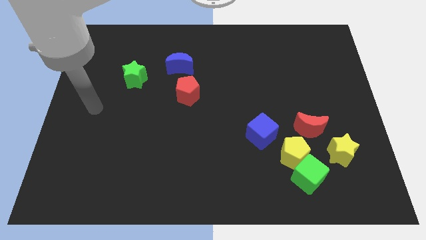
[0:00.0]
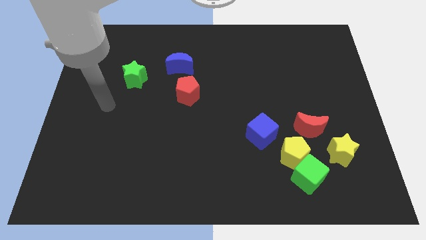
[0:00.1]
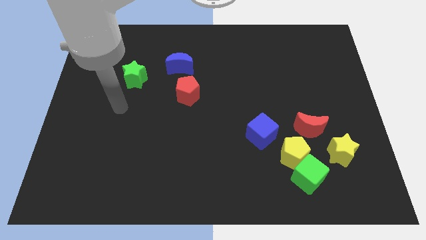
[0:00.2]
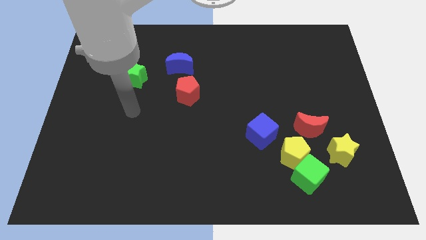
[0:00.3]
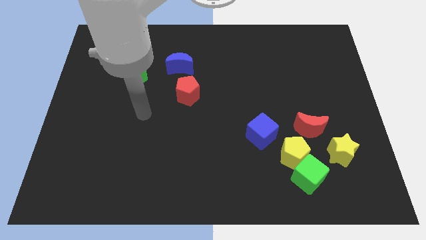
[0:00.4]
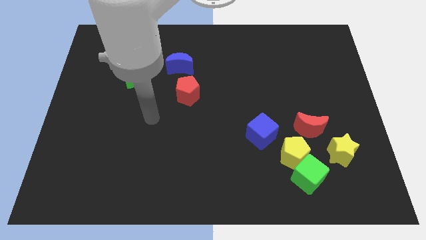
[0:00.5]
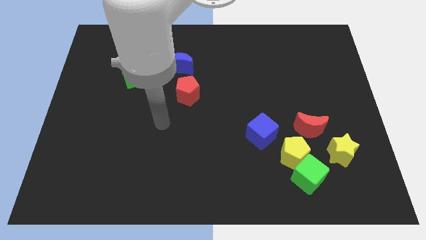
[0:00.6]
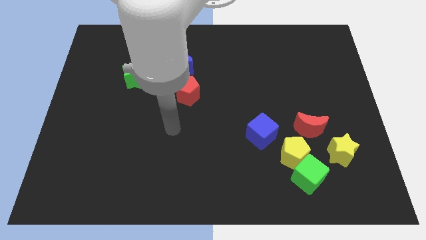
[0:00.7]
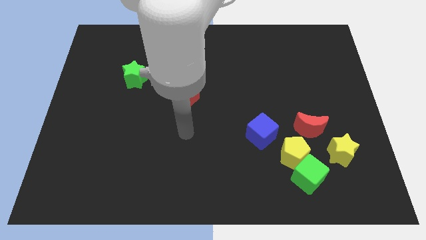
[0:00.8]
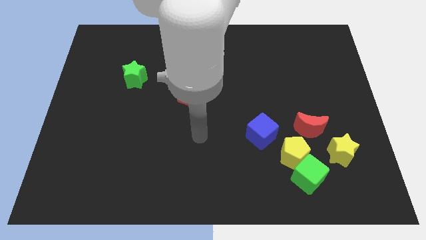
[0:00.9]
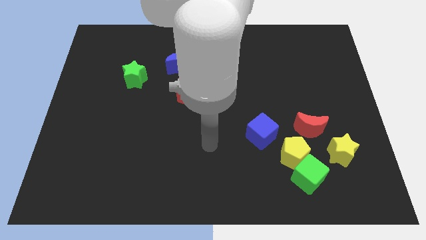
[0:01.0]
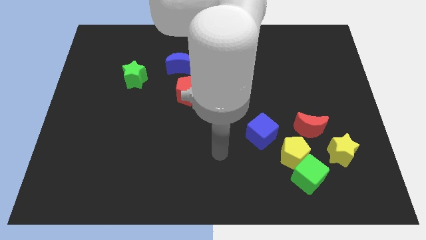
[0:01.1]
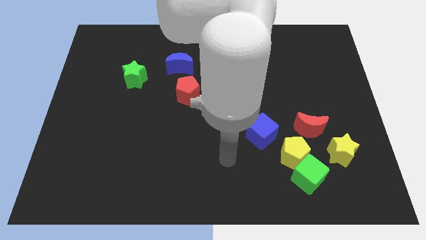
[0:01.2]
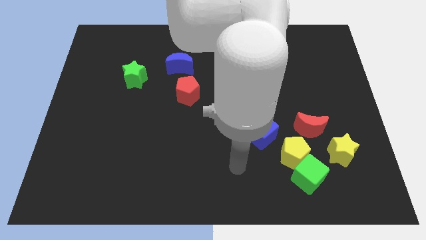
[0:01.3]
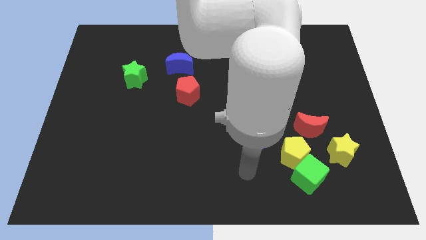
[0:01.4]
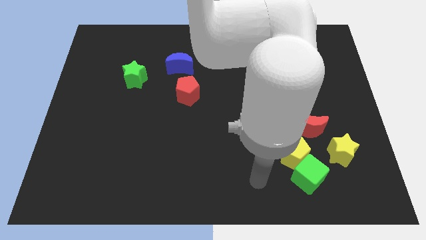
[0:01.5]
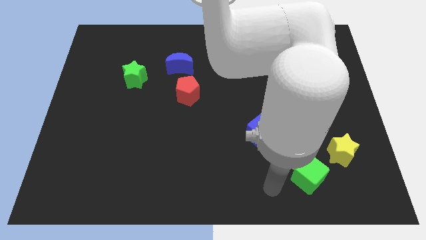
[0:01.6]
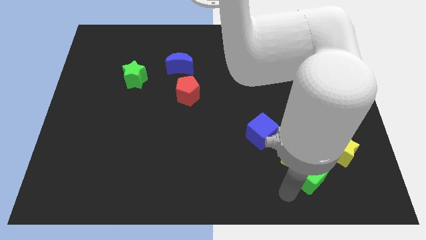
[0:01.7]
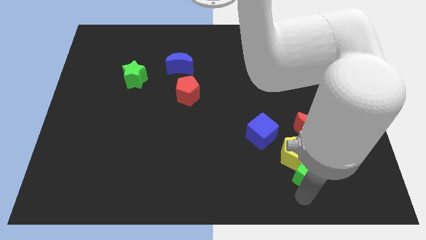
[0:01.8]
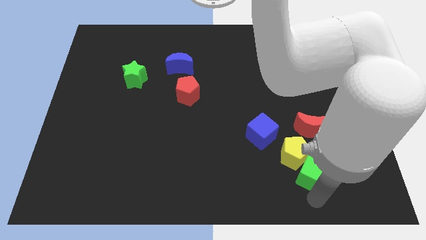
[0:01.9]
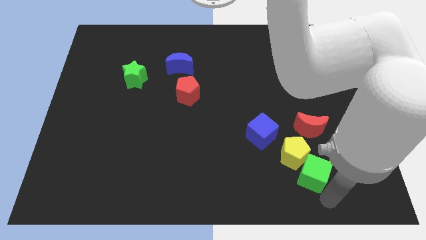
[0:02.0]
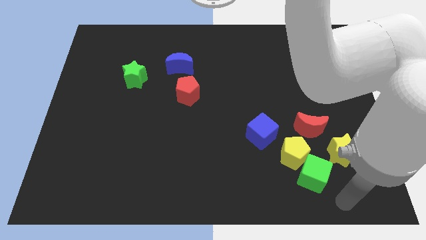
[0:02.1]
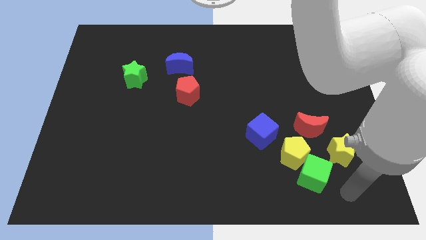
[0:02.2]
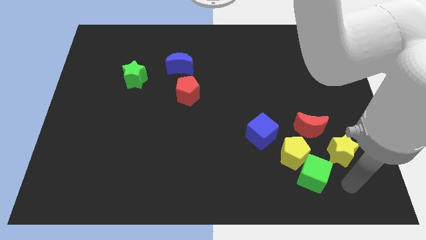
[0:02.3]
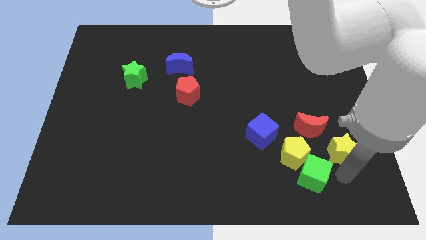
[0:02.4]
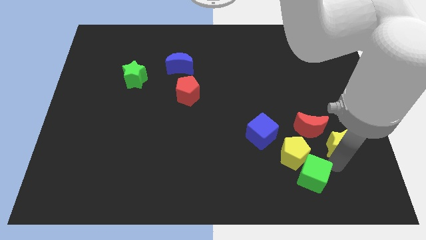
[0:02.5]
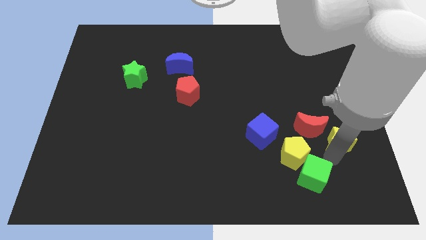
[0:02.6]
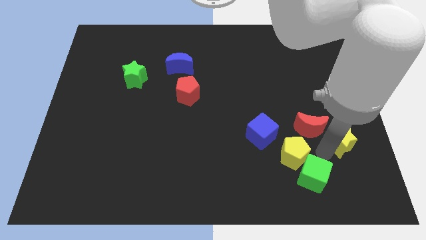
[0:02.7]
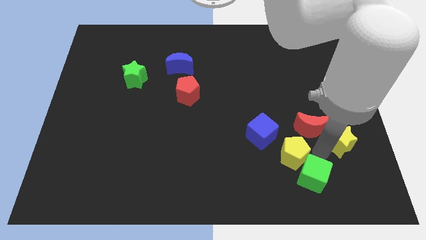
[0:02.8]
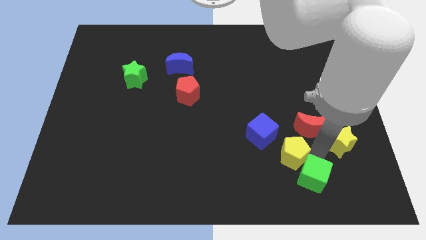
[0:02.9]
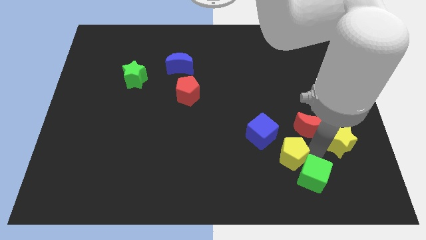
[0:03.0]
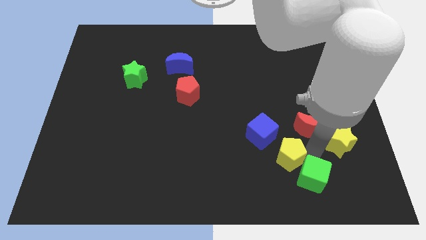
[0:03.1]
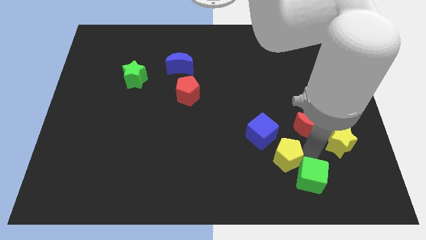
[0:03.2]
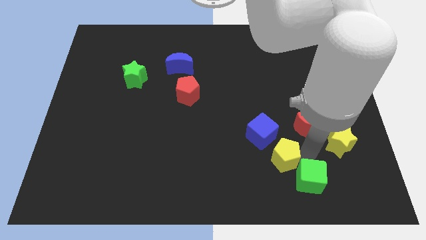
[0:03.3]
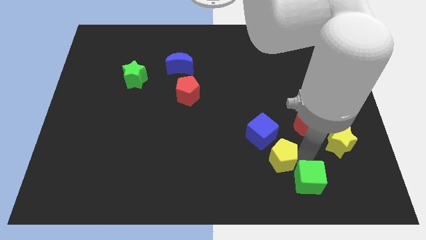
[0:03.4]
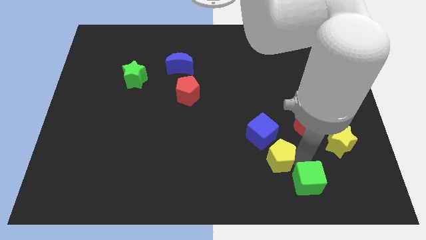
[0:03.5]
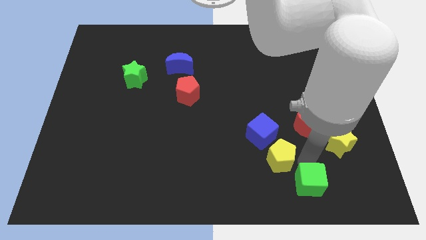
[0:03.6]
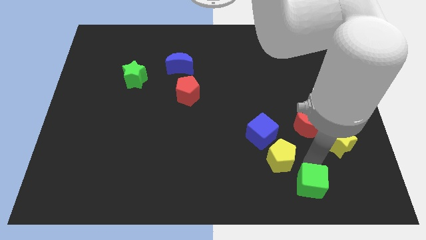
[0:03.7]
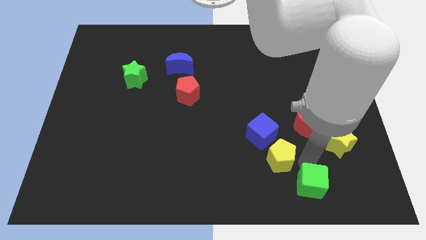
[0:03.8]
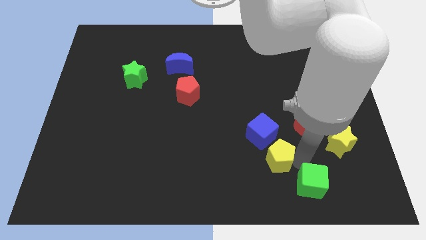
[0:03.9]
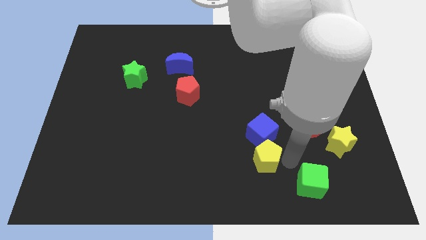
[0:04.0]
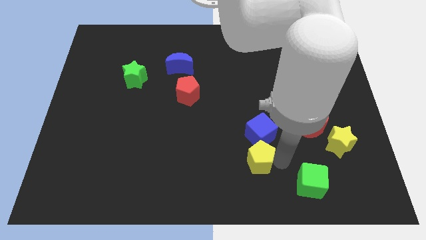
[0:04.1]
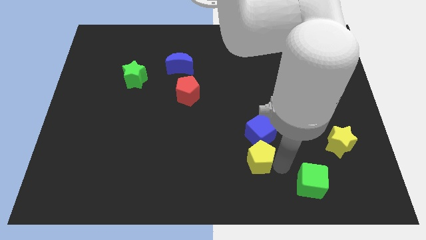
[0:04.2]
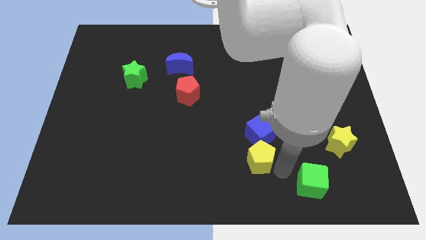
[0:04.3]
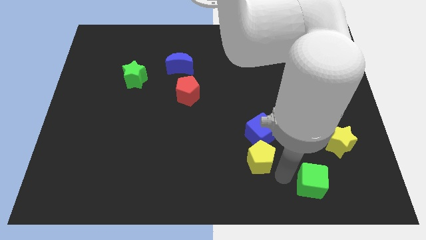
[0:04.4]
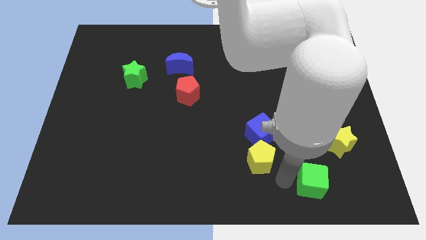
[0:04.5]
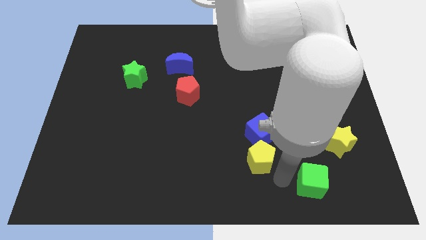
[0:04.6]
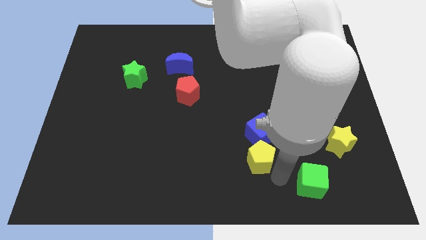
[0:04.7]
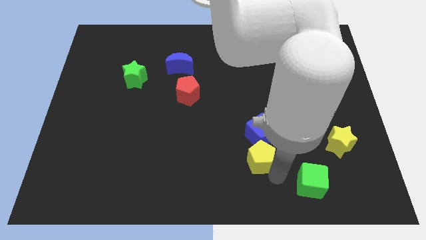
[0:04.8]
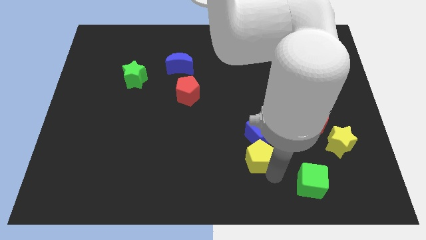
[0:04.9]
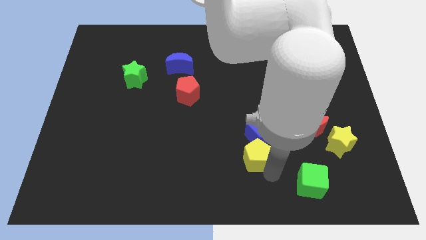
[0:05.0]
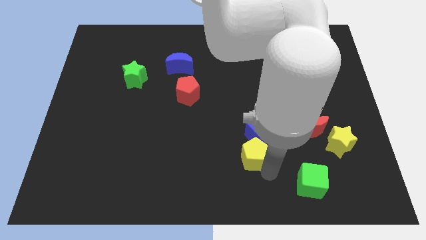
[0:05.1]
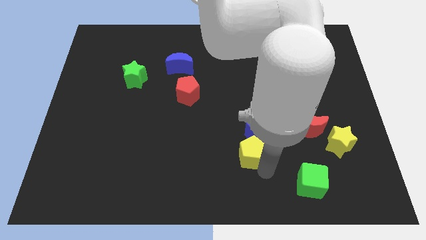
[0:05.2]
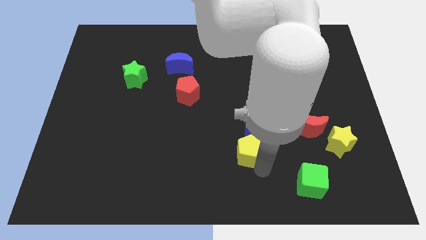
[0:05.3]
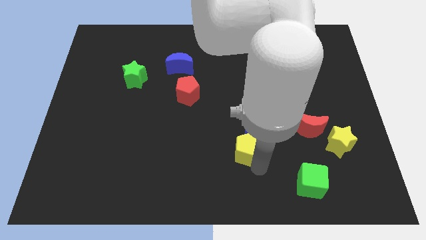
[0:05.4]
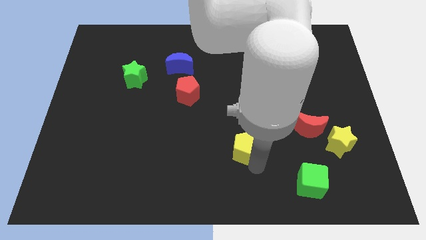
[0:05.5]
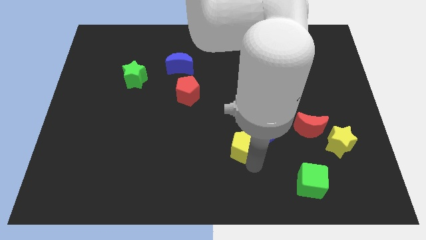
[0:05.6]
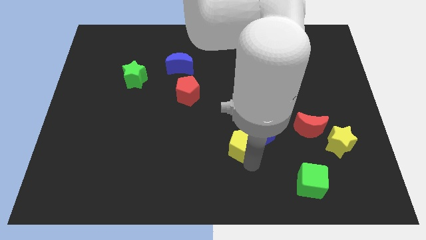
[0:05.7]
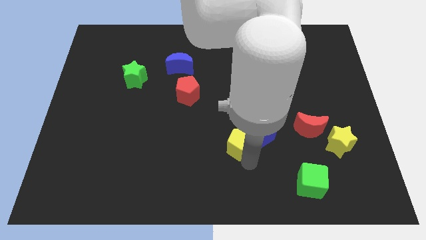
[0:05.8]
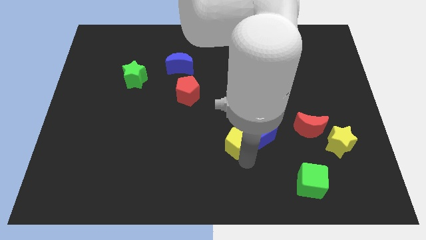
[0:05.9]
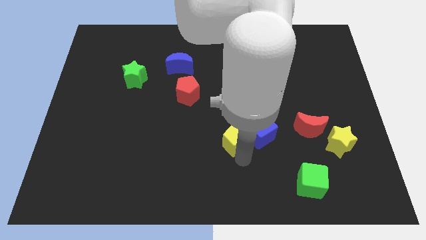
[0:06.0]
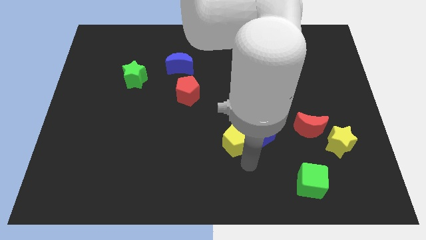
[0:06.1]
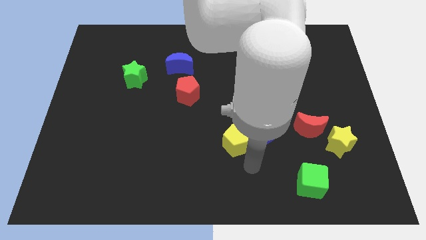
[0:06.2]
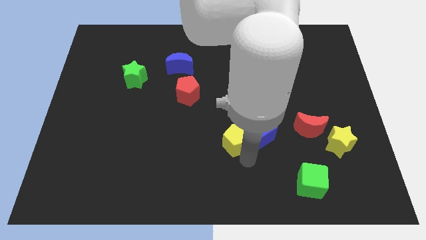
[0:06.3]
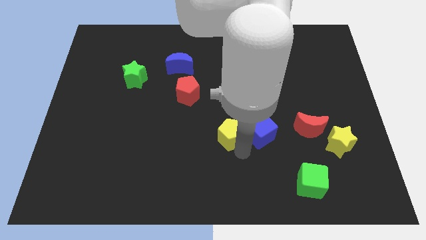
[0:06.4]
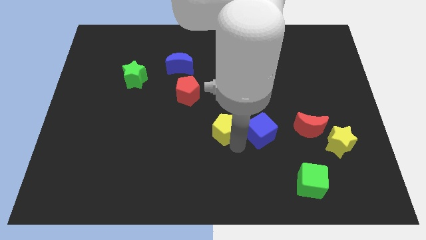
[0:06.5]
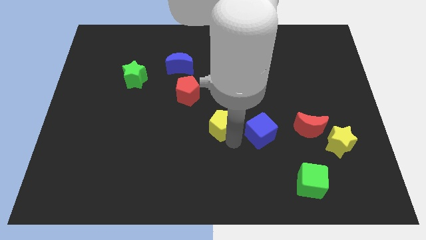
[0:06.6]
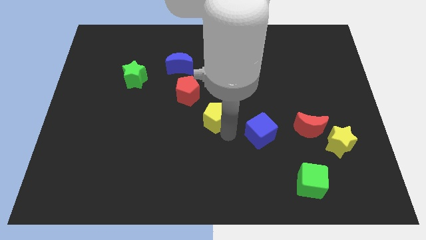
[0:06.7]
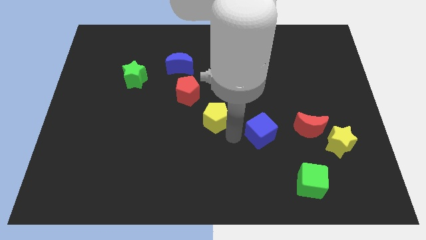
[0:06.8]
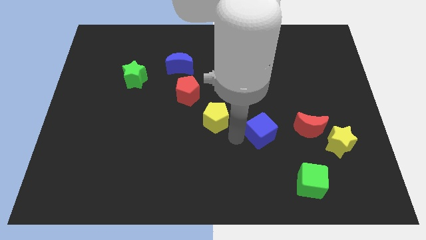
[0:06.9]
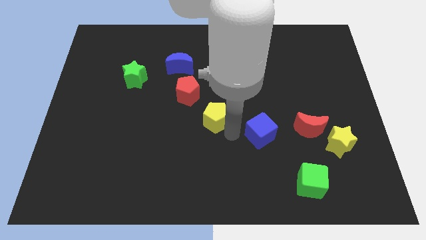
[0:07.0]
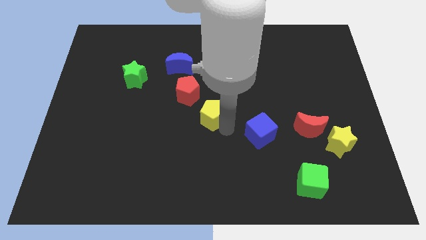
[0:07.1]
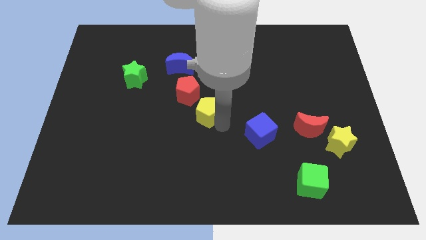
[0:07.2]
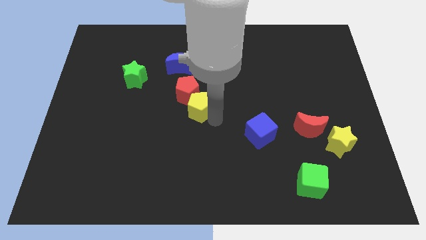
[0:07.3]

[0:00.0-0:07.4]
move the yellow pentagon towards the red pentagon

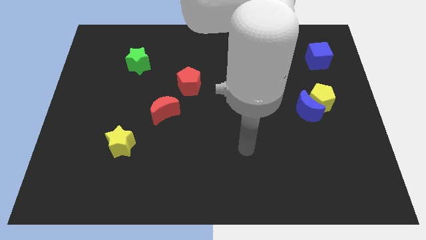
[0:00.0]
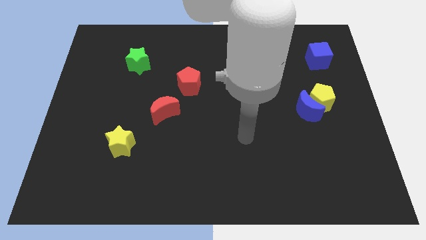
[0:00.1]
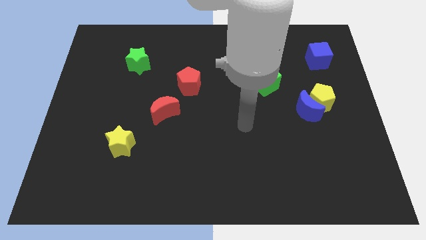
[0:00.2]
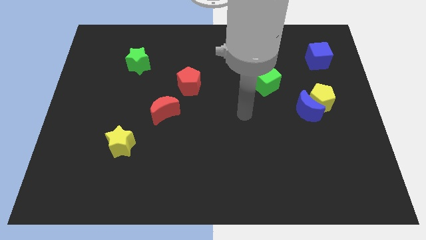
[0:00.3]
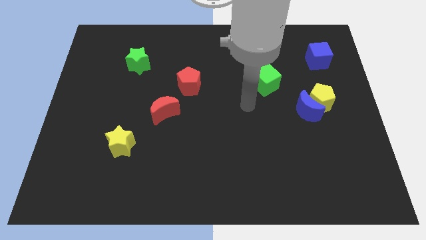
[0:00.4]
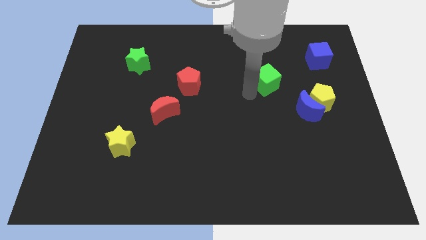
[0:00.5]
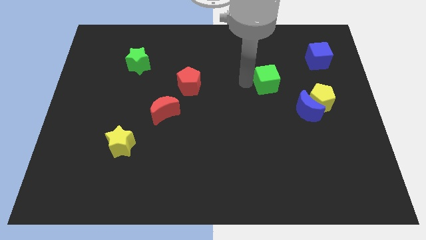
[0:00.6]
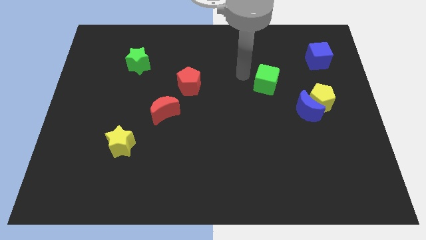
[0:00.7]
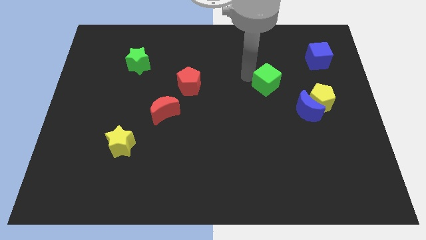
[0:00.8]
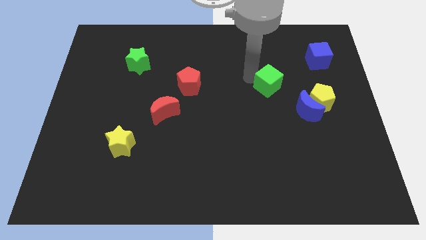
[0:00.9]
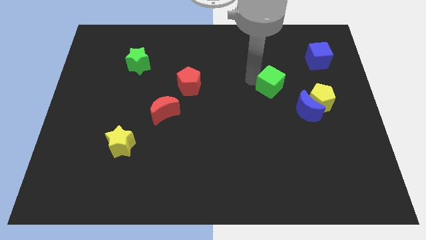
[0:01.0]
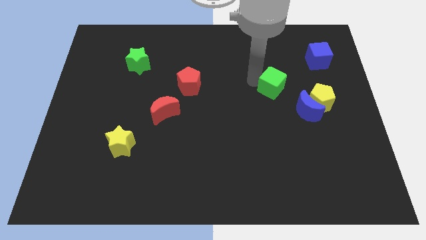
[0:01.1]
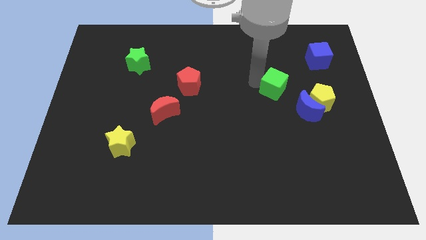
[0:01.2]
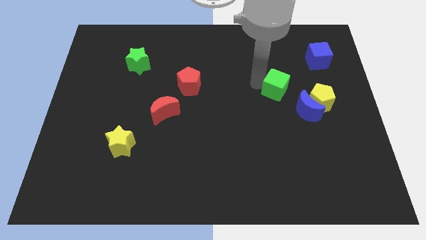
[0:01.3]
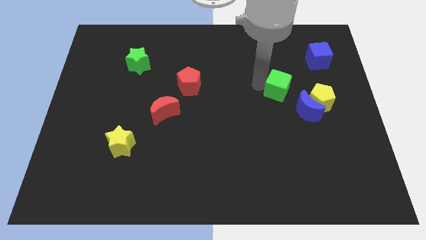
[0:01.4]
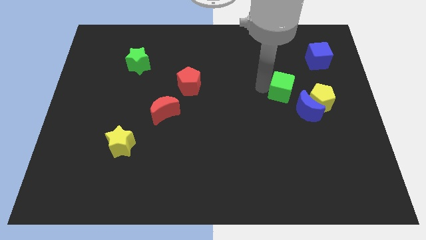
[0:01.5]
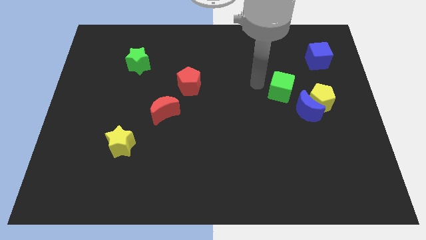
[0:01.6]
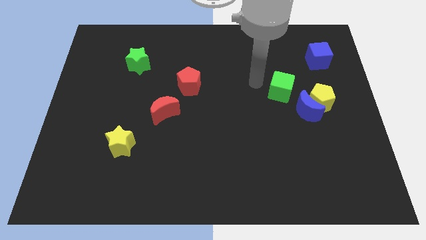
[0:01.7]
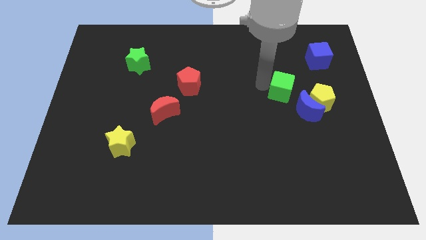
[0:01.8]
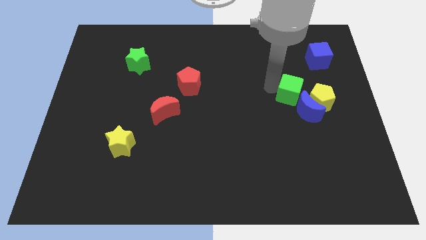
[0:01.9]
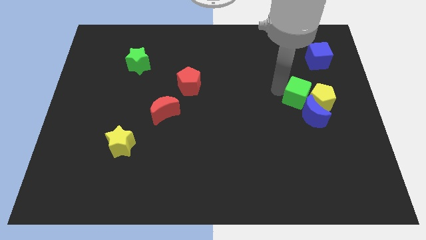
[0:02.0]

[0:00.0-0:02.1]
push the green cube next to the yellow pentagon
